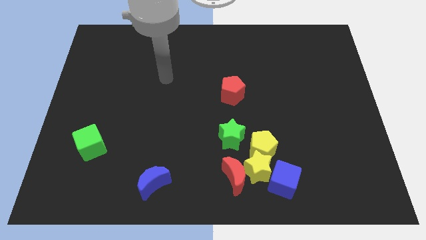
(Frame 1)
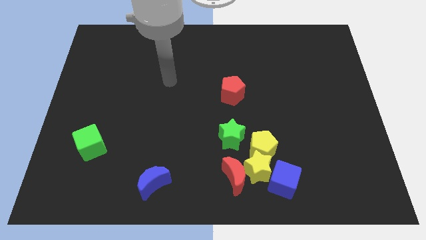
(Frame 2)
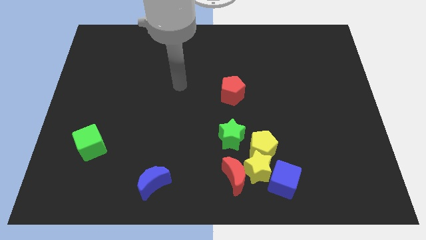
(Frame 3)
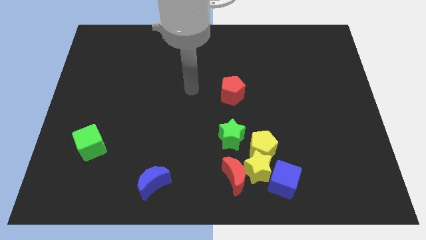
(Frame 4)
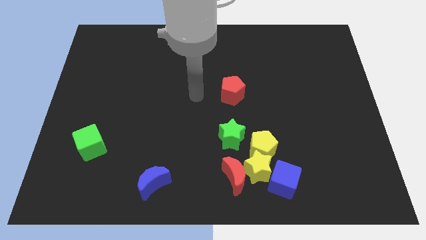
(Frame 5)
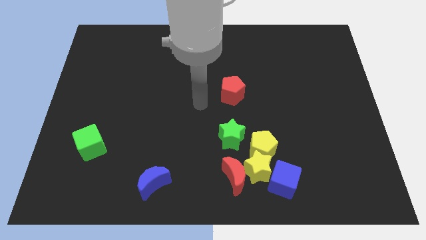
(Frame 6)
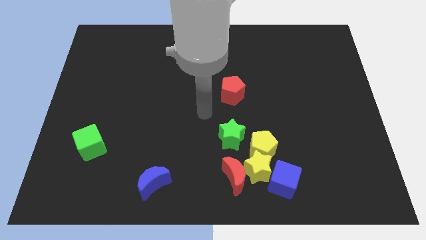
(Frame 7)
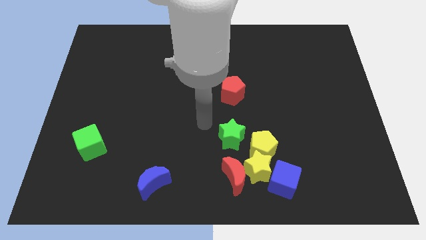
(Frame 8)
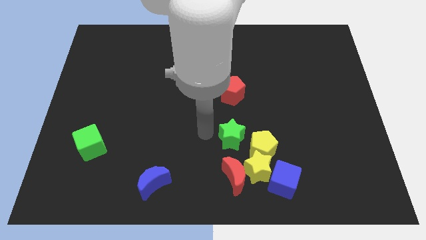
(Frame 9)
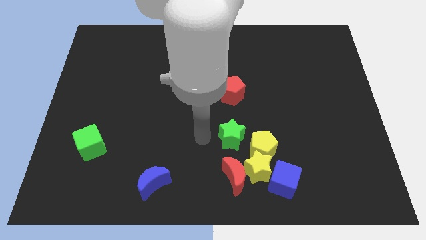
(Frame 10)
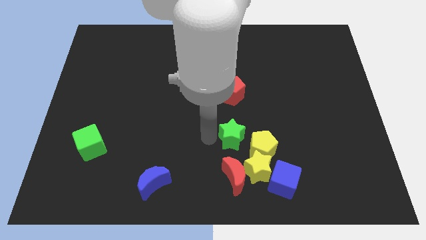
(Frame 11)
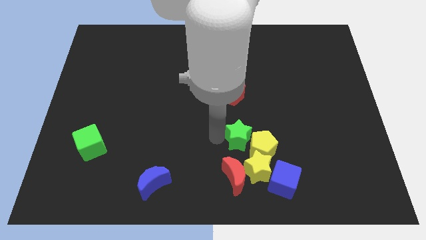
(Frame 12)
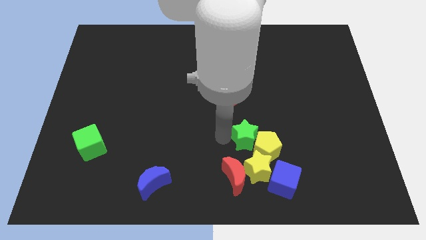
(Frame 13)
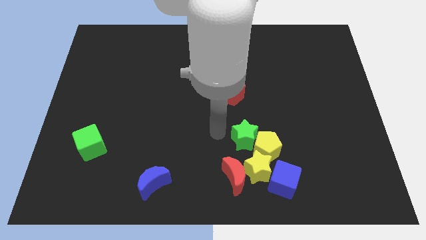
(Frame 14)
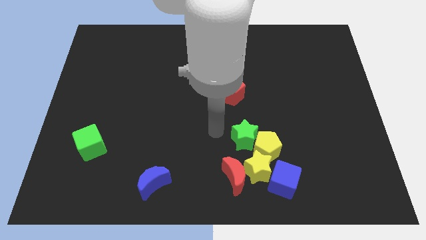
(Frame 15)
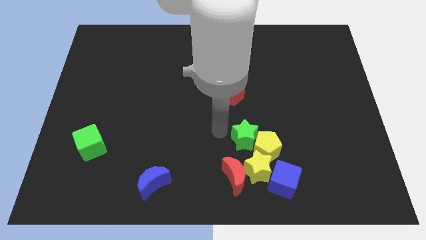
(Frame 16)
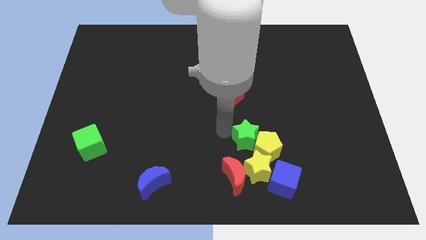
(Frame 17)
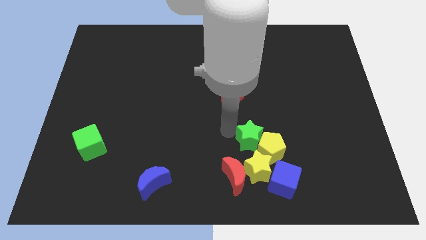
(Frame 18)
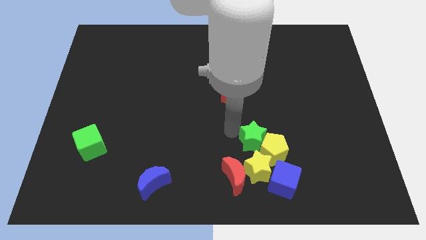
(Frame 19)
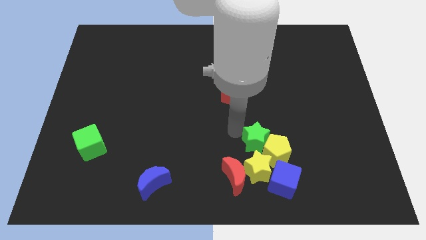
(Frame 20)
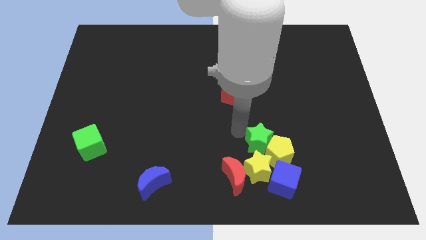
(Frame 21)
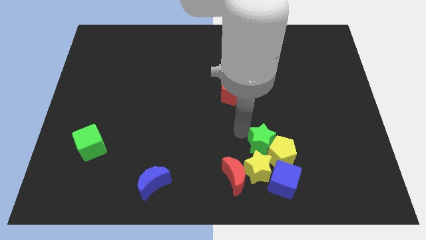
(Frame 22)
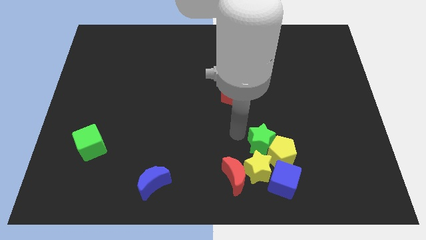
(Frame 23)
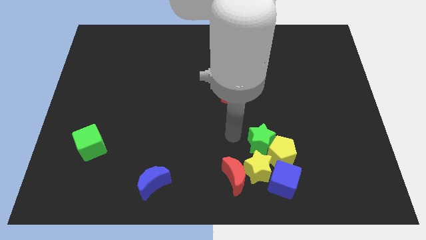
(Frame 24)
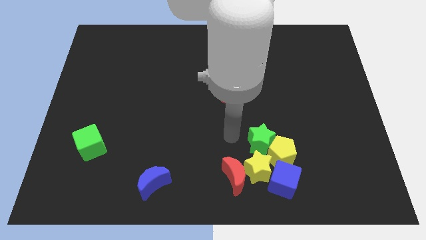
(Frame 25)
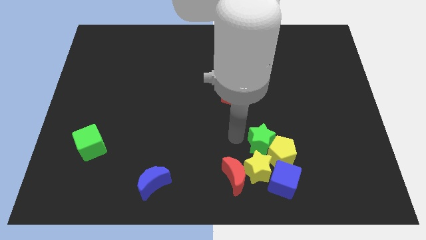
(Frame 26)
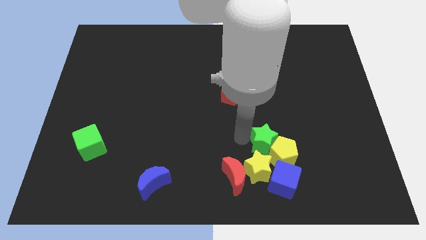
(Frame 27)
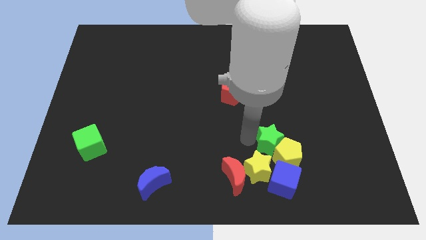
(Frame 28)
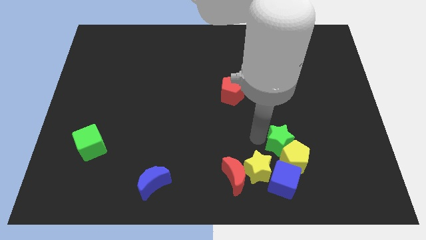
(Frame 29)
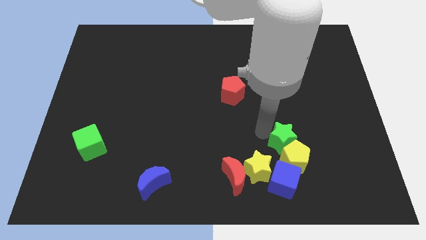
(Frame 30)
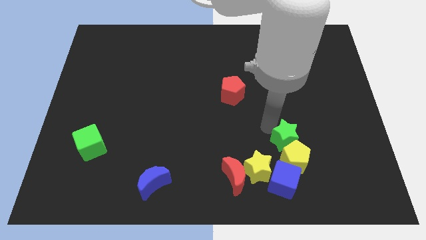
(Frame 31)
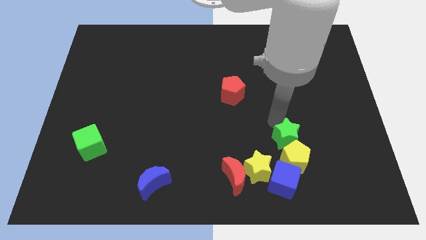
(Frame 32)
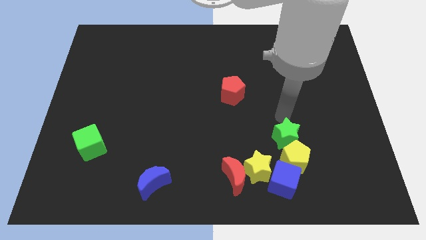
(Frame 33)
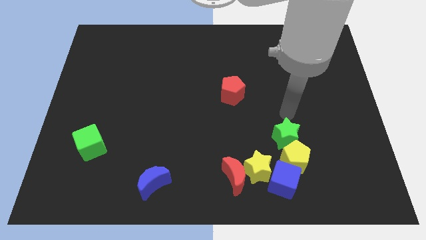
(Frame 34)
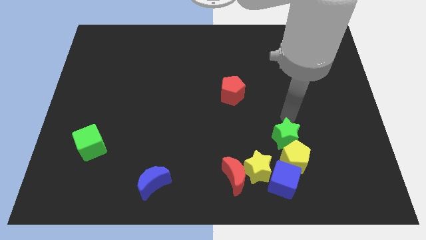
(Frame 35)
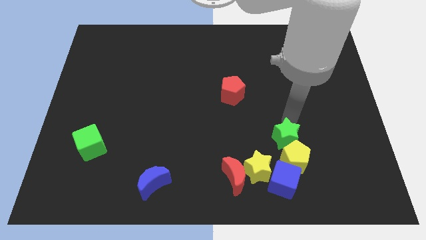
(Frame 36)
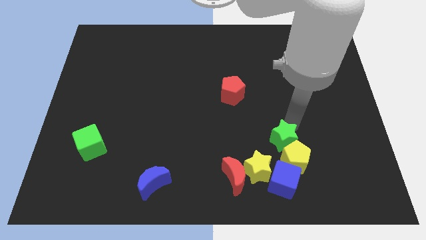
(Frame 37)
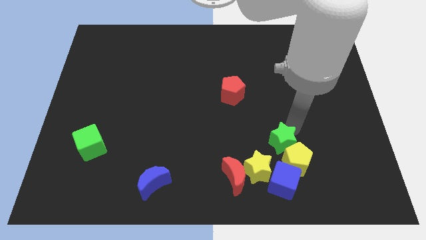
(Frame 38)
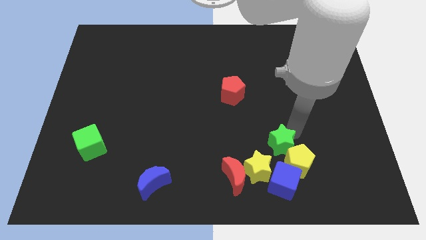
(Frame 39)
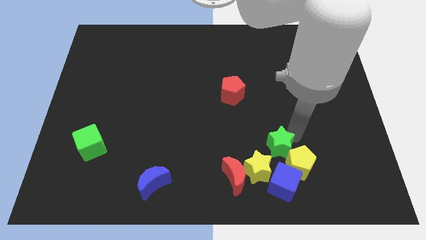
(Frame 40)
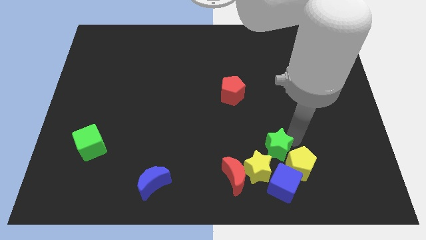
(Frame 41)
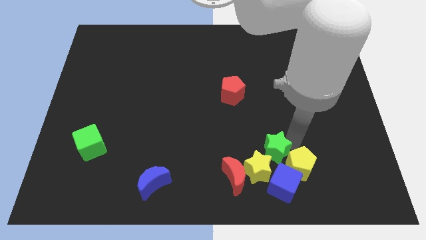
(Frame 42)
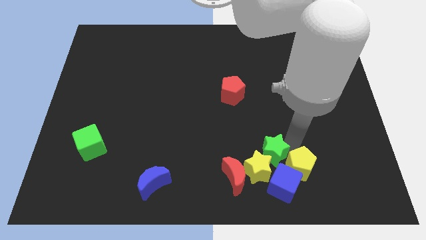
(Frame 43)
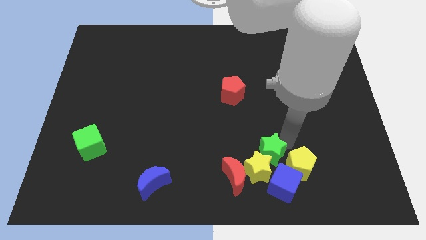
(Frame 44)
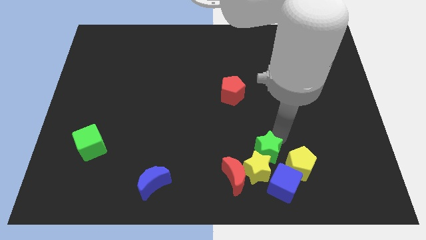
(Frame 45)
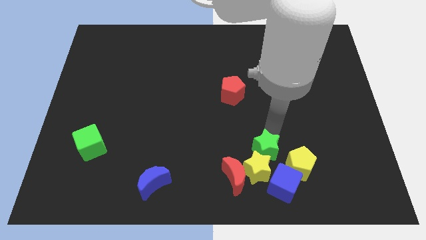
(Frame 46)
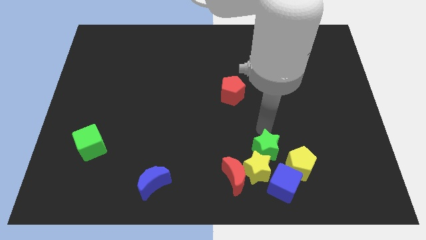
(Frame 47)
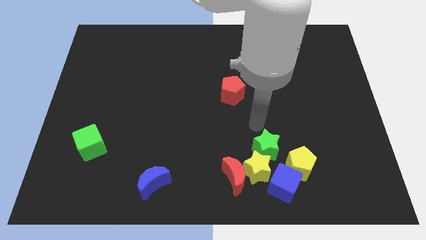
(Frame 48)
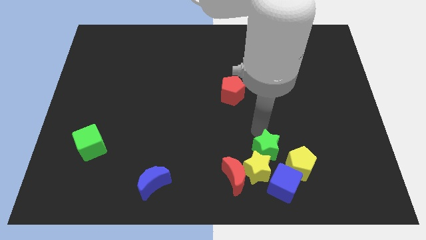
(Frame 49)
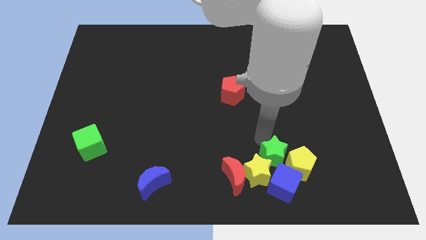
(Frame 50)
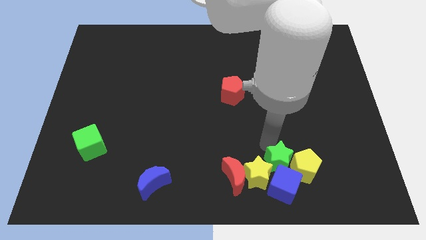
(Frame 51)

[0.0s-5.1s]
put the green star next to the blue cube

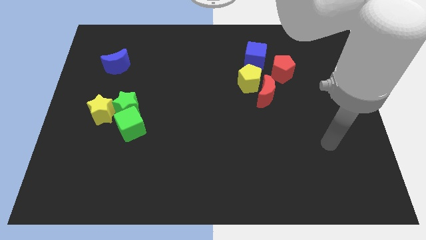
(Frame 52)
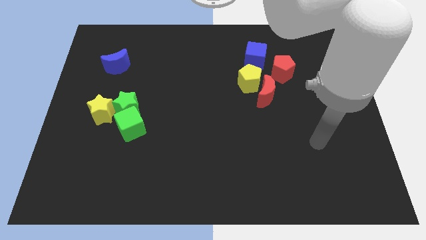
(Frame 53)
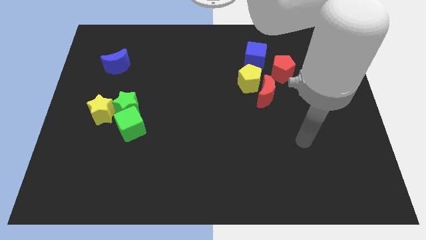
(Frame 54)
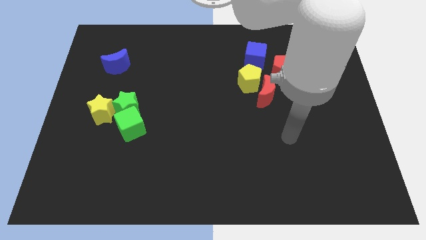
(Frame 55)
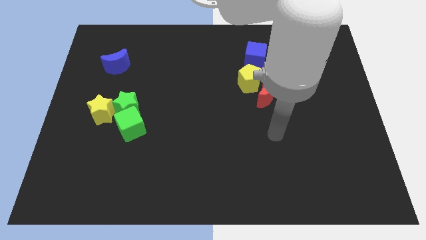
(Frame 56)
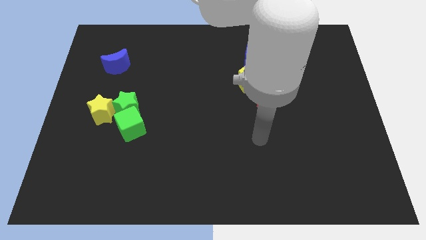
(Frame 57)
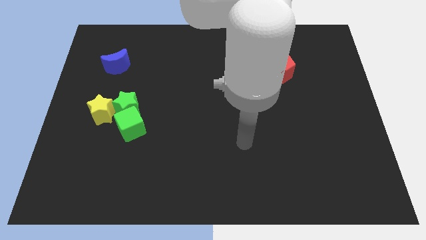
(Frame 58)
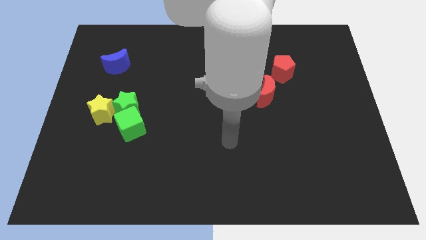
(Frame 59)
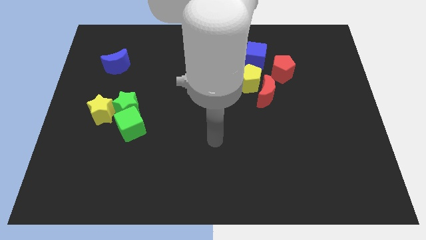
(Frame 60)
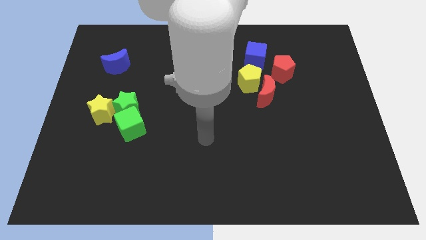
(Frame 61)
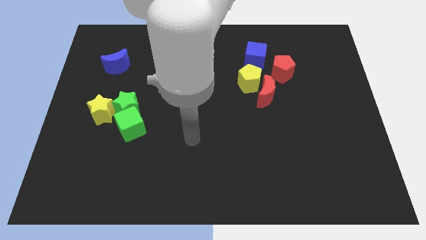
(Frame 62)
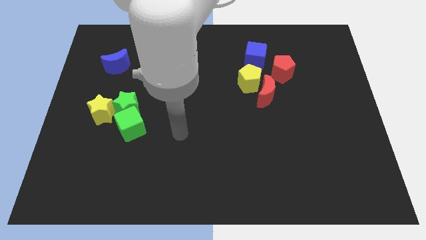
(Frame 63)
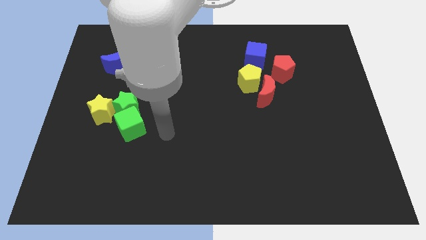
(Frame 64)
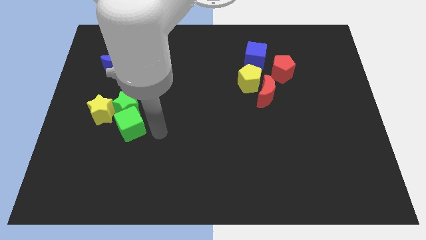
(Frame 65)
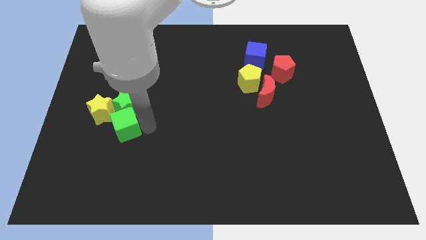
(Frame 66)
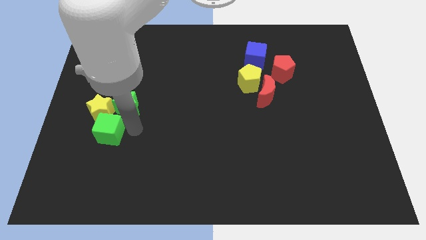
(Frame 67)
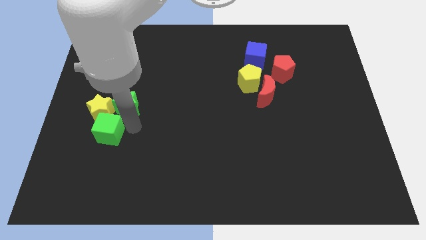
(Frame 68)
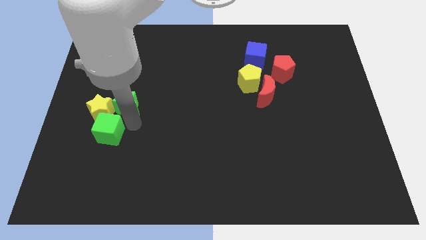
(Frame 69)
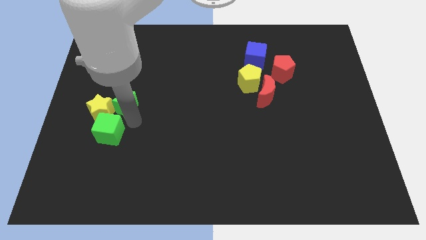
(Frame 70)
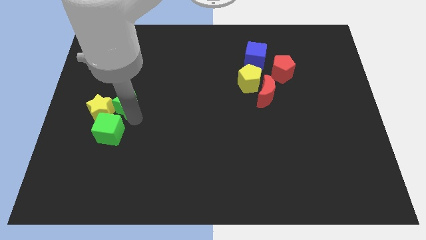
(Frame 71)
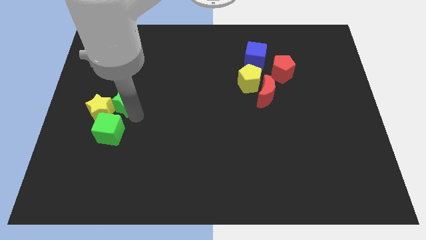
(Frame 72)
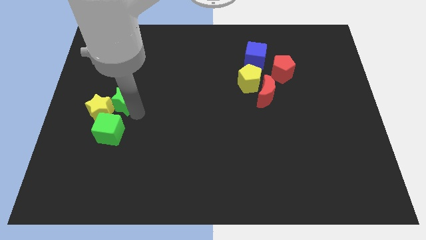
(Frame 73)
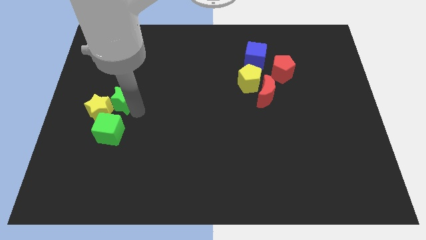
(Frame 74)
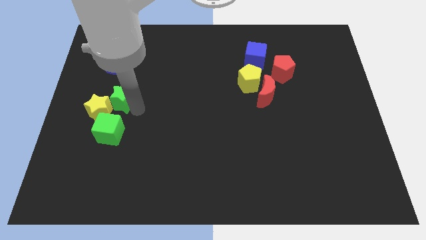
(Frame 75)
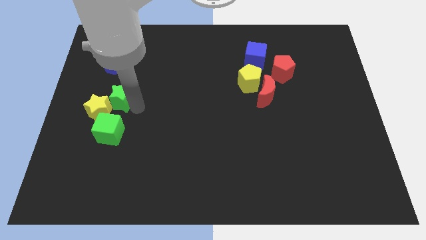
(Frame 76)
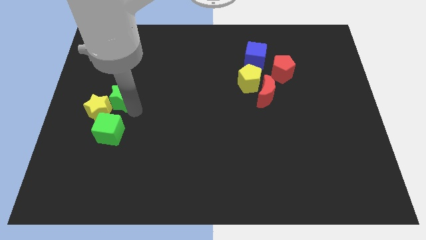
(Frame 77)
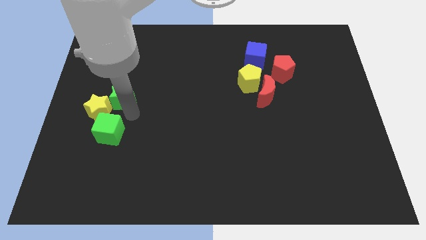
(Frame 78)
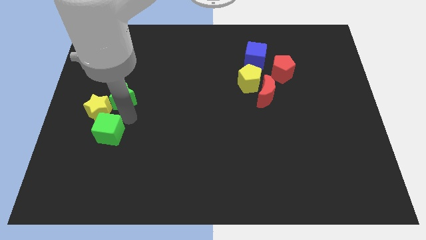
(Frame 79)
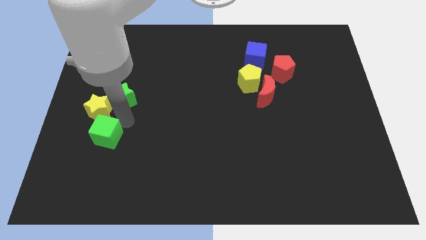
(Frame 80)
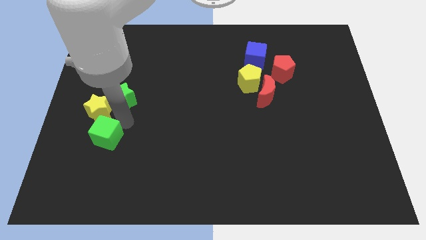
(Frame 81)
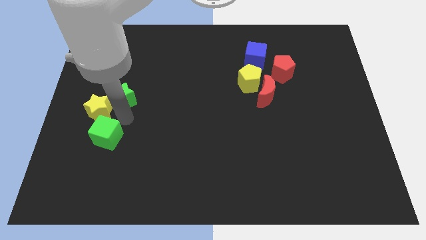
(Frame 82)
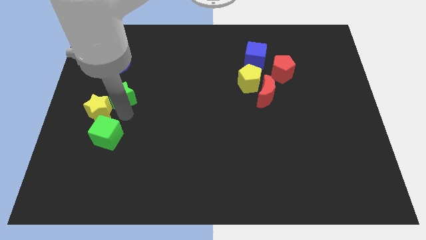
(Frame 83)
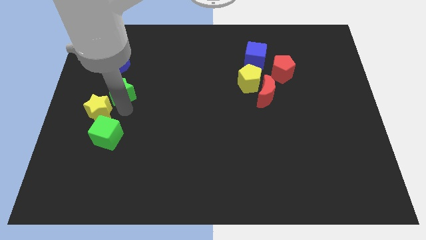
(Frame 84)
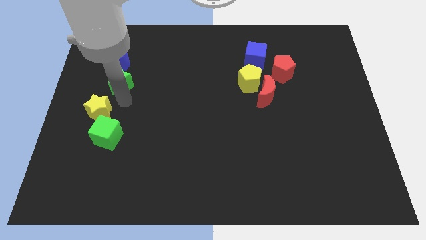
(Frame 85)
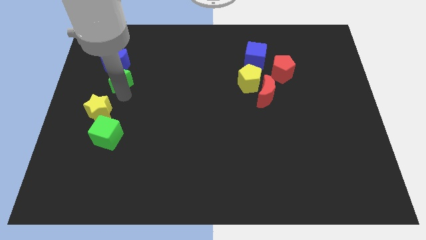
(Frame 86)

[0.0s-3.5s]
push the green star towards the blue moon
